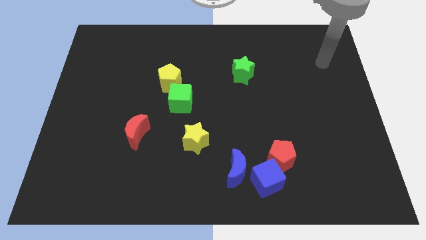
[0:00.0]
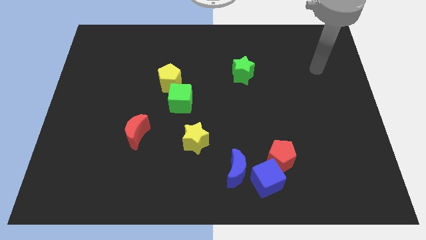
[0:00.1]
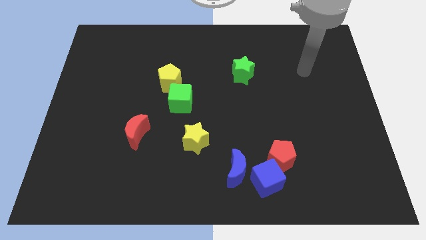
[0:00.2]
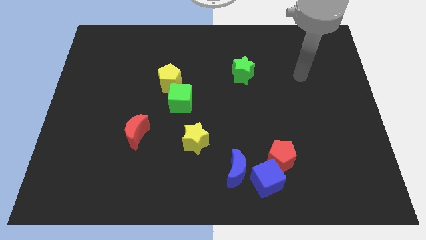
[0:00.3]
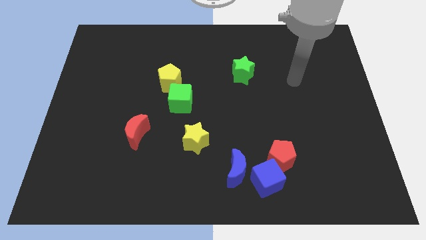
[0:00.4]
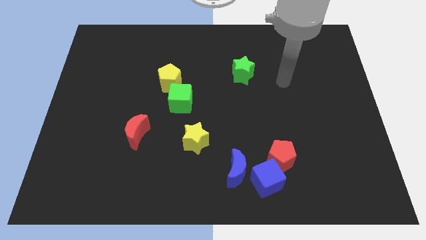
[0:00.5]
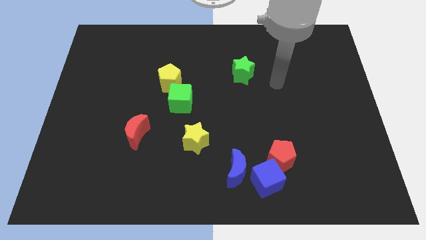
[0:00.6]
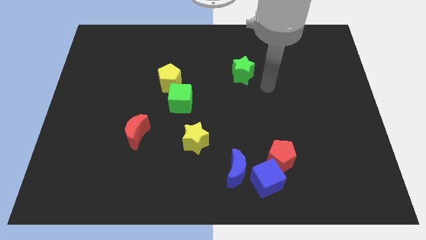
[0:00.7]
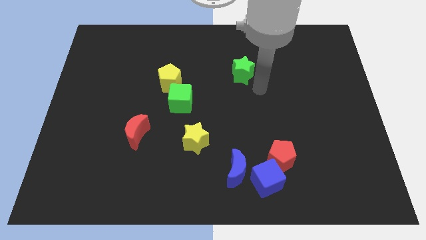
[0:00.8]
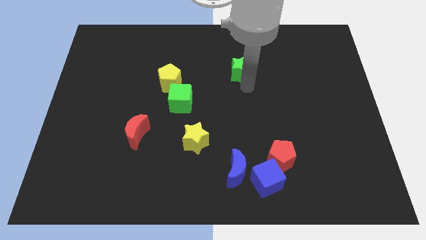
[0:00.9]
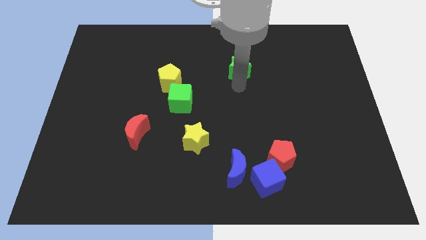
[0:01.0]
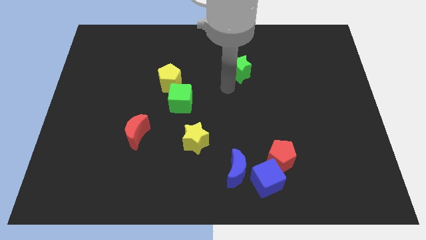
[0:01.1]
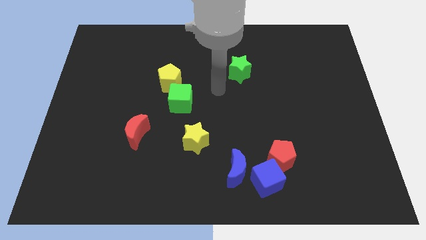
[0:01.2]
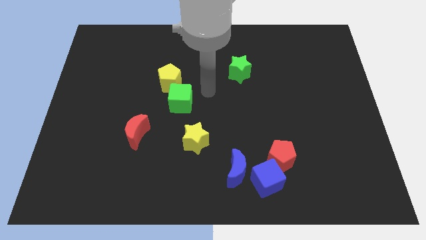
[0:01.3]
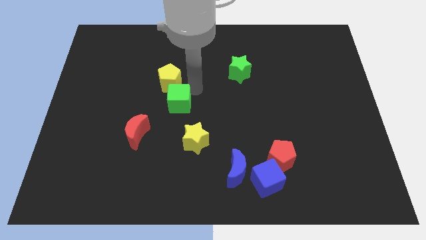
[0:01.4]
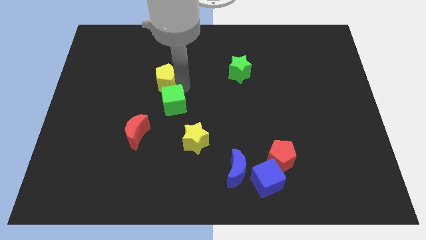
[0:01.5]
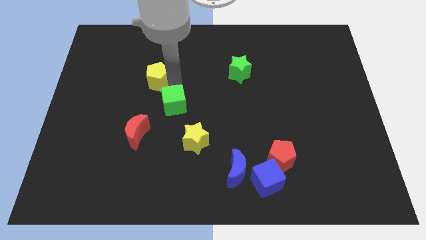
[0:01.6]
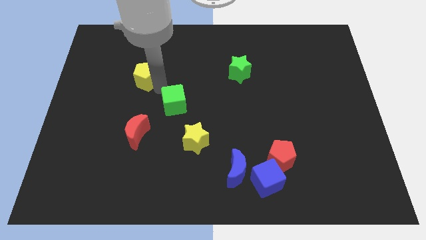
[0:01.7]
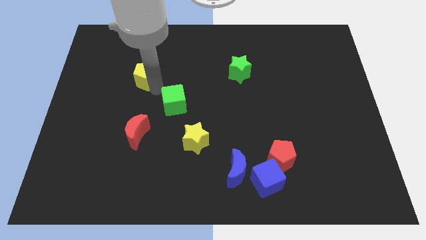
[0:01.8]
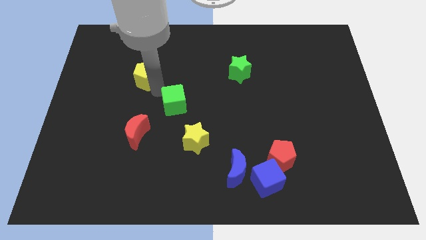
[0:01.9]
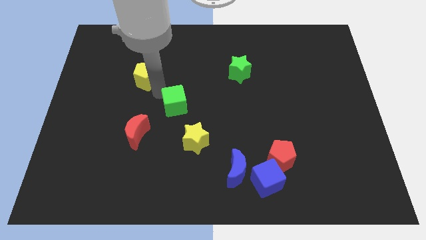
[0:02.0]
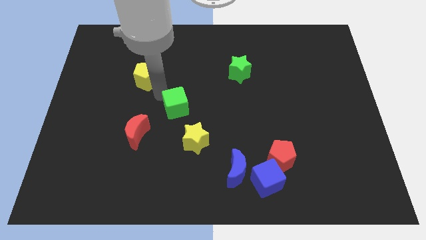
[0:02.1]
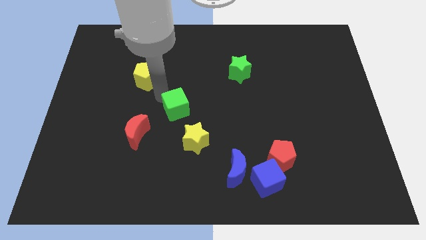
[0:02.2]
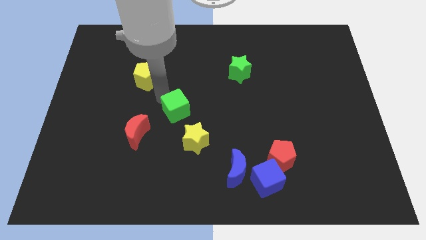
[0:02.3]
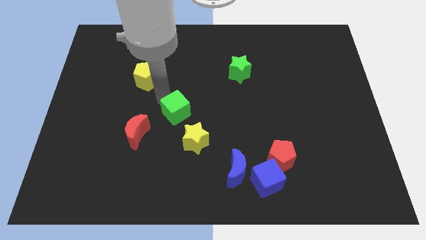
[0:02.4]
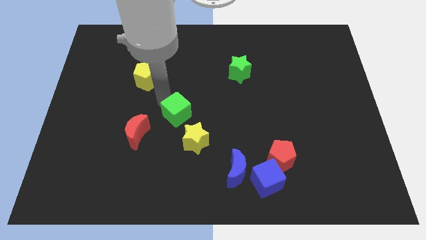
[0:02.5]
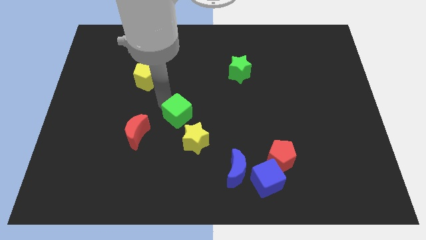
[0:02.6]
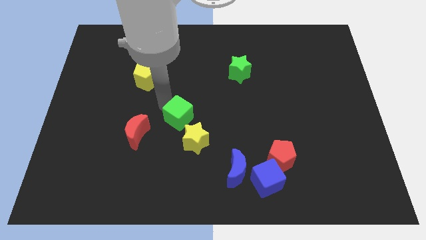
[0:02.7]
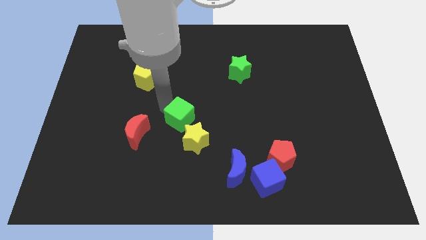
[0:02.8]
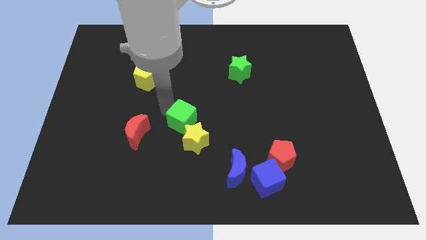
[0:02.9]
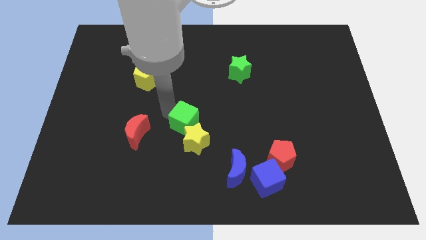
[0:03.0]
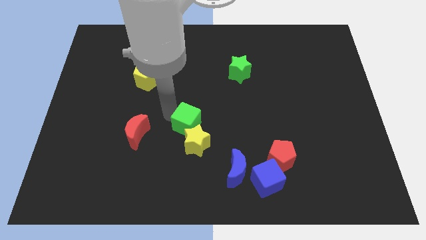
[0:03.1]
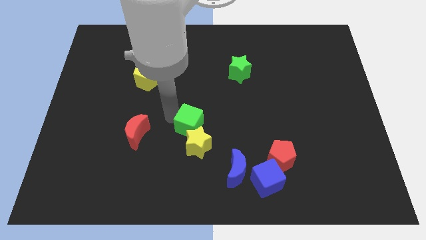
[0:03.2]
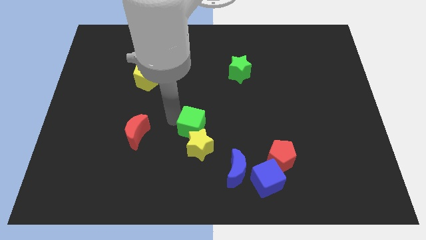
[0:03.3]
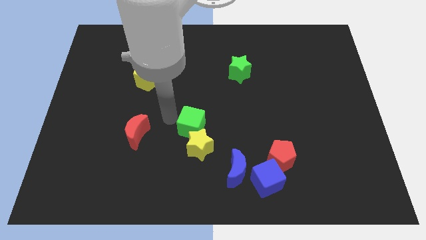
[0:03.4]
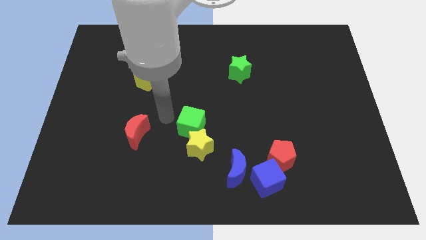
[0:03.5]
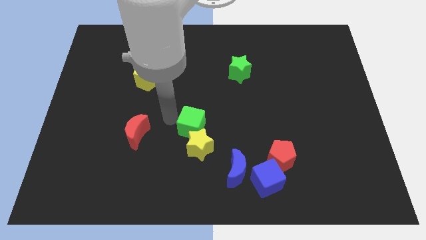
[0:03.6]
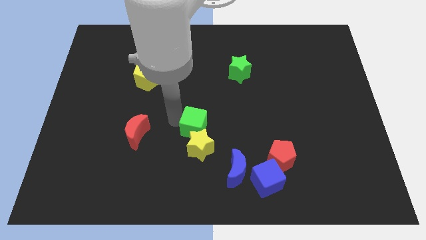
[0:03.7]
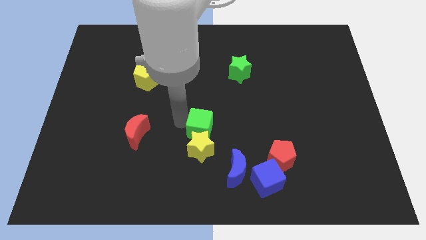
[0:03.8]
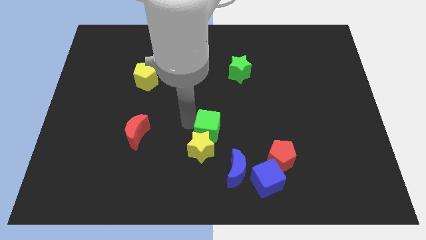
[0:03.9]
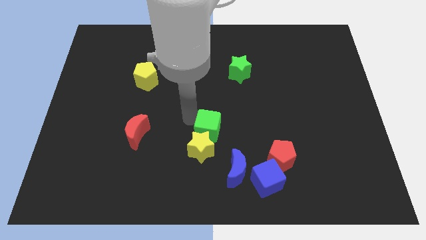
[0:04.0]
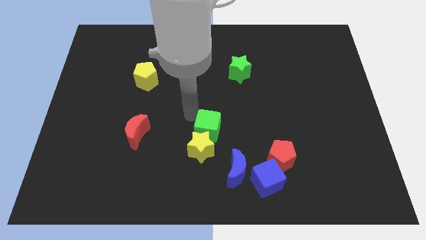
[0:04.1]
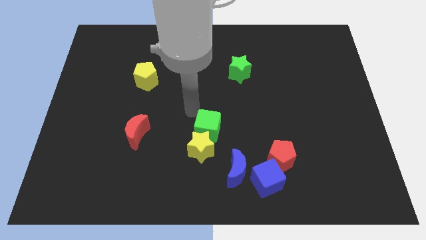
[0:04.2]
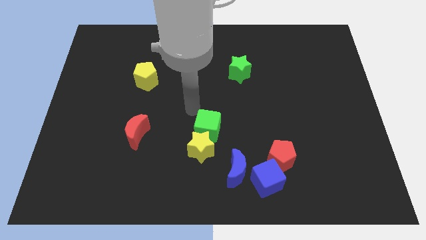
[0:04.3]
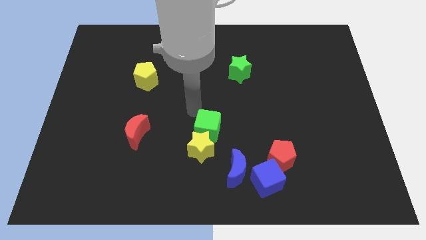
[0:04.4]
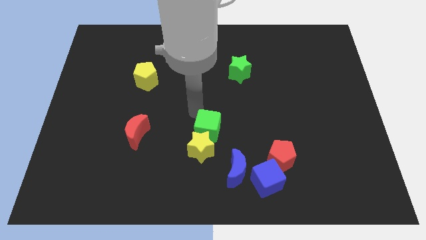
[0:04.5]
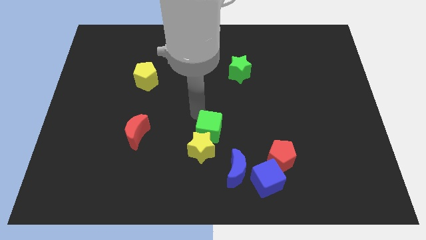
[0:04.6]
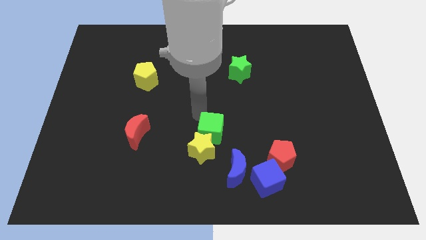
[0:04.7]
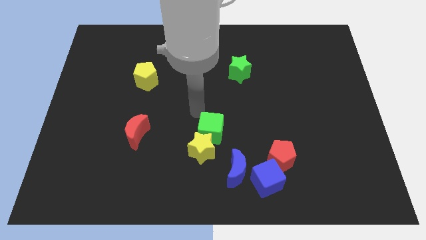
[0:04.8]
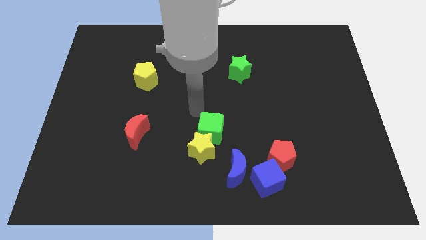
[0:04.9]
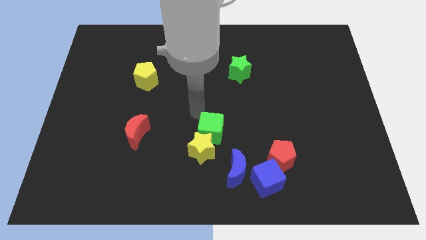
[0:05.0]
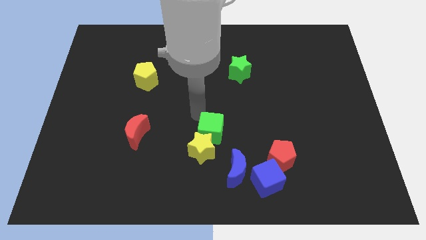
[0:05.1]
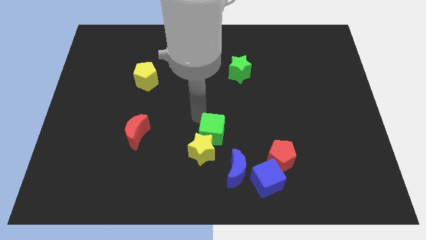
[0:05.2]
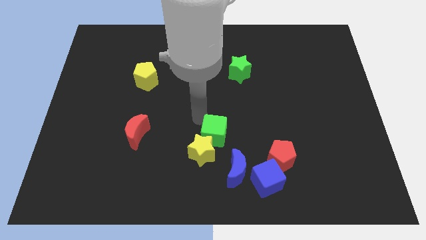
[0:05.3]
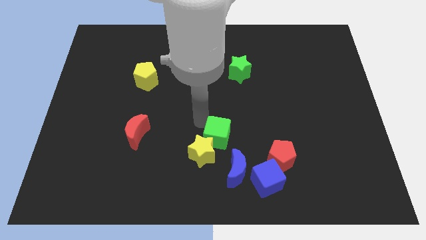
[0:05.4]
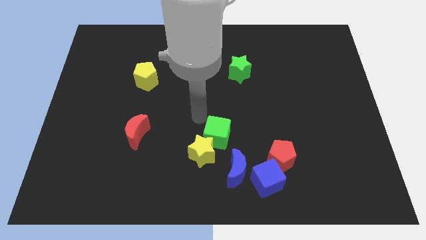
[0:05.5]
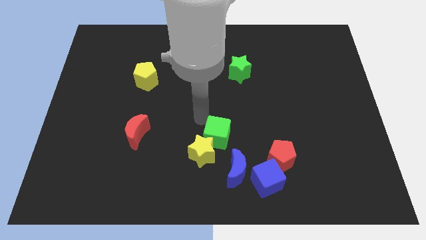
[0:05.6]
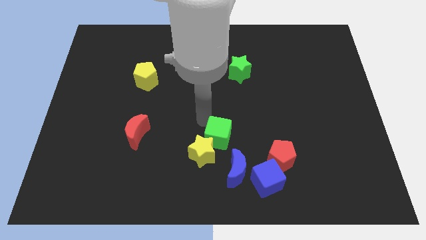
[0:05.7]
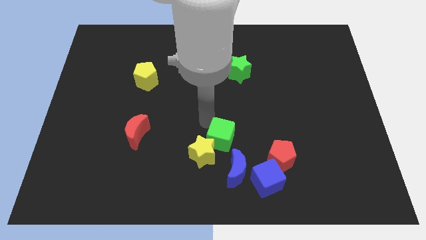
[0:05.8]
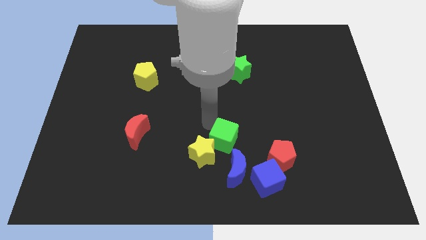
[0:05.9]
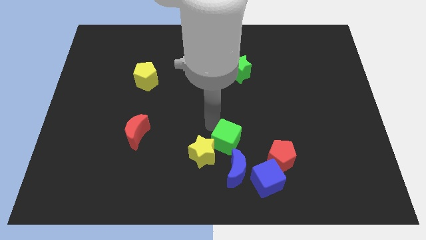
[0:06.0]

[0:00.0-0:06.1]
slide the green cube to the top left of the blue cube

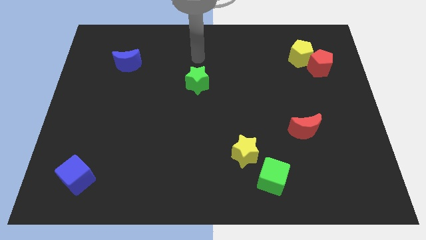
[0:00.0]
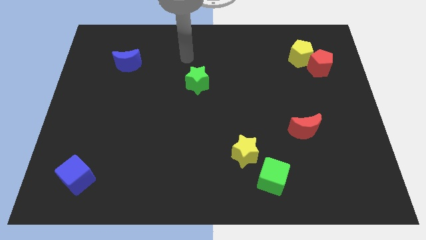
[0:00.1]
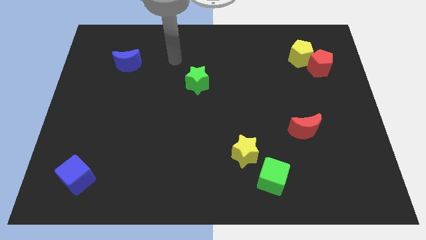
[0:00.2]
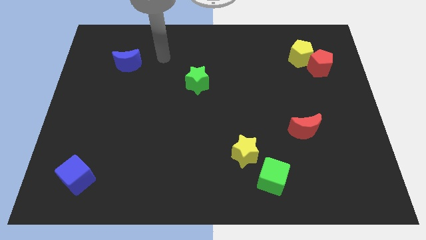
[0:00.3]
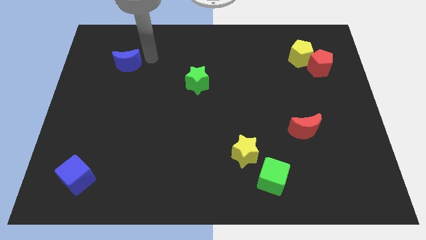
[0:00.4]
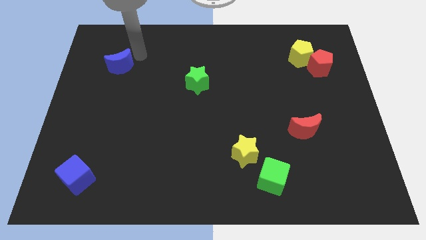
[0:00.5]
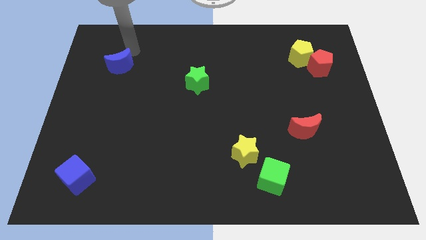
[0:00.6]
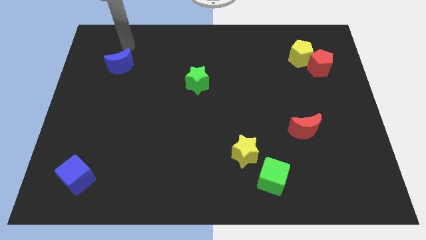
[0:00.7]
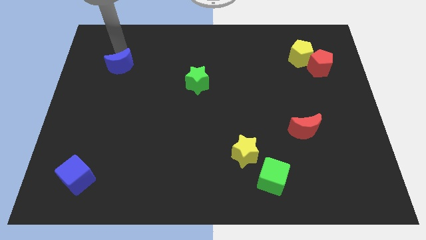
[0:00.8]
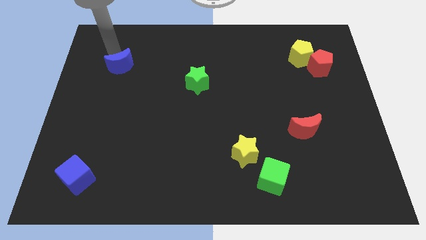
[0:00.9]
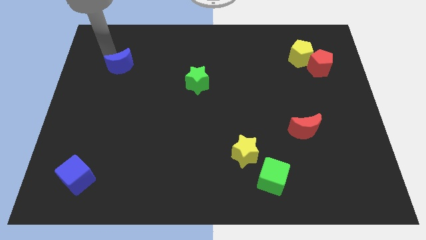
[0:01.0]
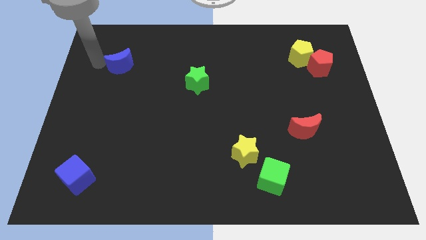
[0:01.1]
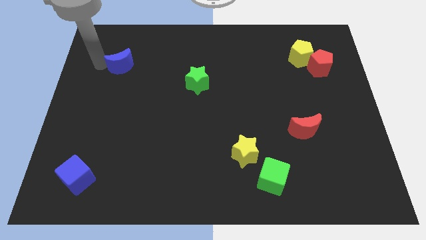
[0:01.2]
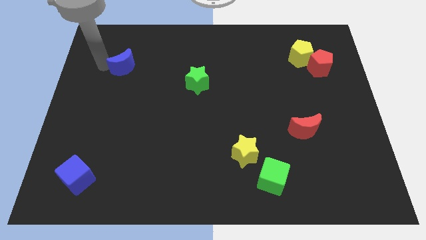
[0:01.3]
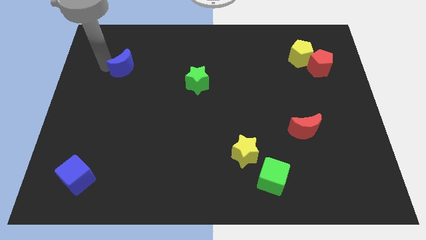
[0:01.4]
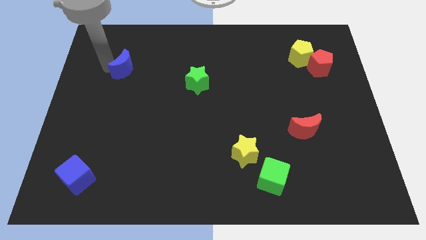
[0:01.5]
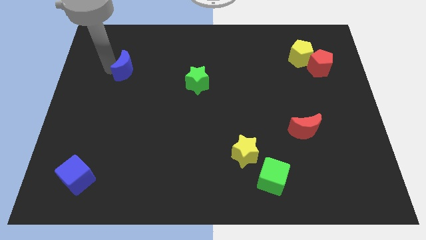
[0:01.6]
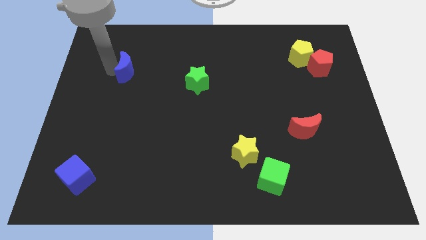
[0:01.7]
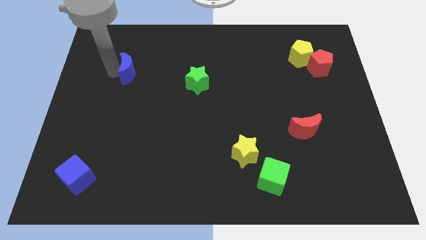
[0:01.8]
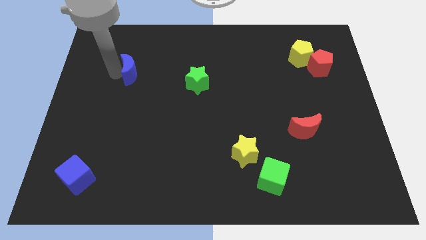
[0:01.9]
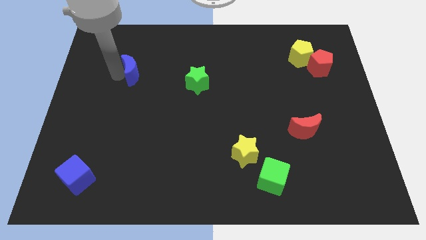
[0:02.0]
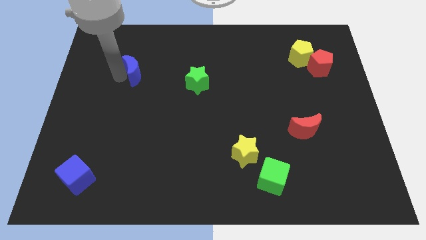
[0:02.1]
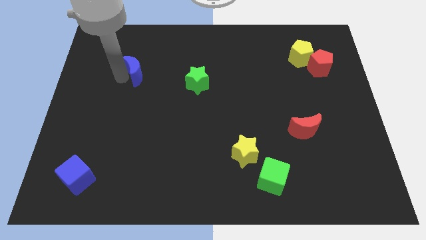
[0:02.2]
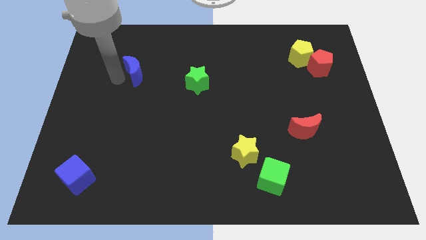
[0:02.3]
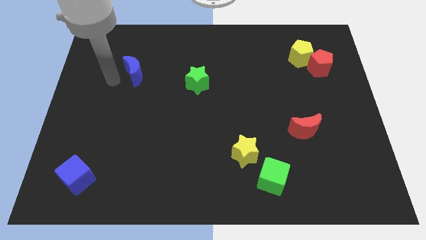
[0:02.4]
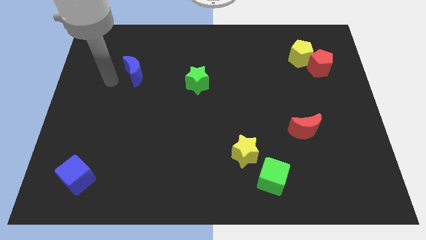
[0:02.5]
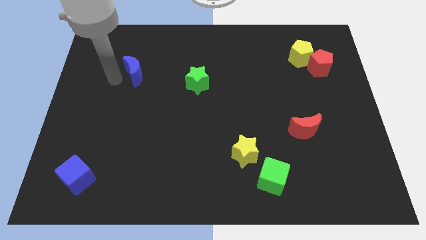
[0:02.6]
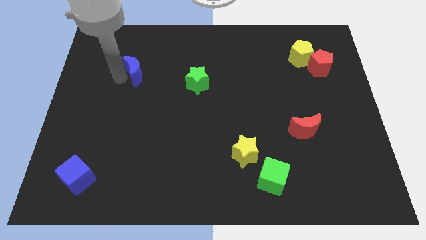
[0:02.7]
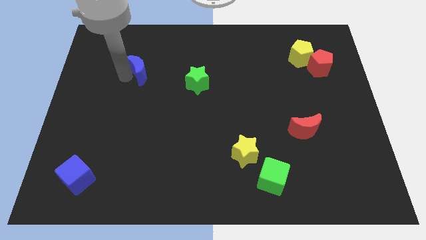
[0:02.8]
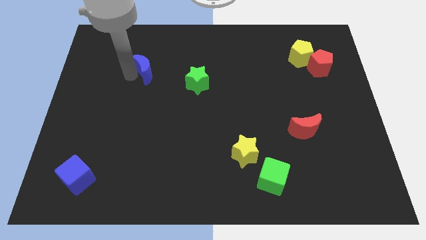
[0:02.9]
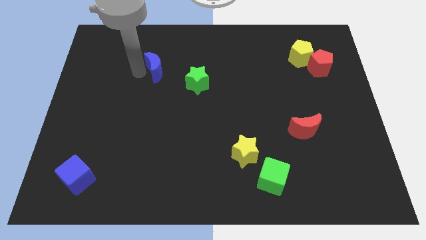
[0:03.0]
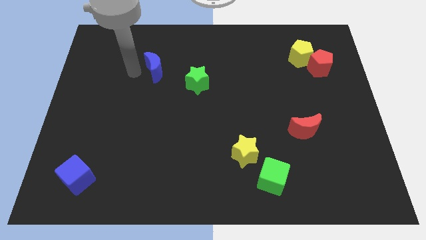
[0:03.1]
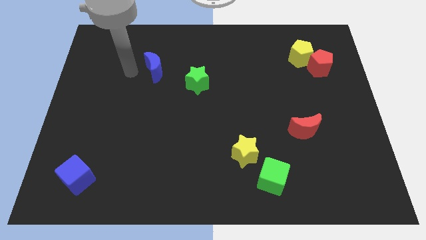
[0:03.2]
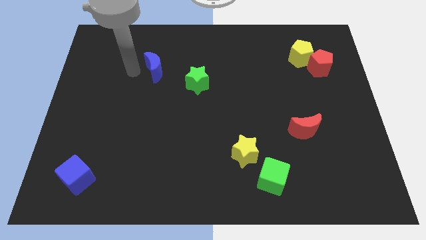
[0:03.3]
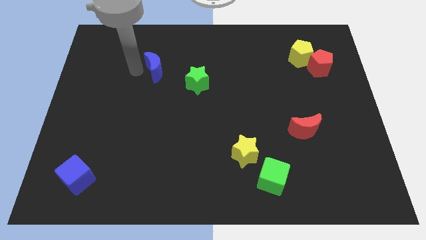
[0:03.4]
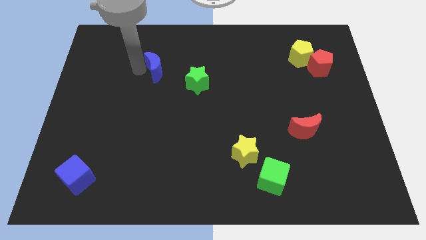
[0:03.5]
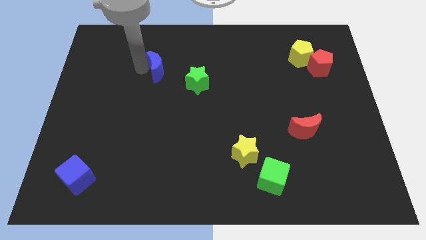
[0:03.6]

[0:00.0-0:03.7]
push the blue moon diagonally up and to the left of the green star
